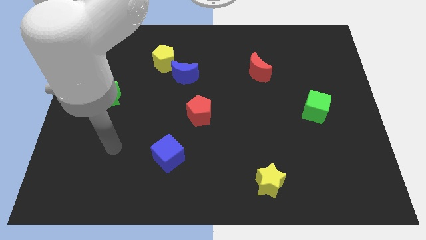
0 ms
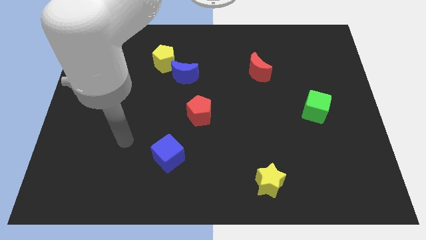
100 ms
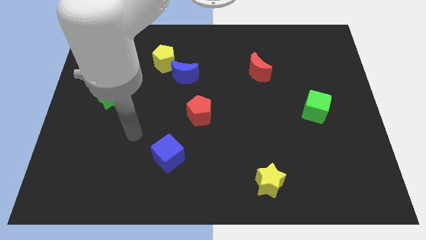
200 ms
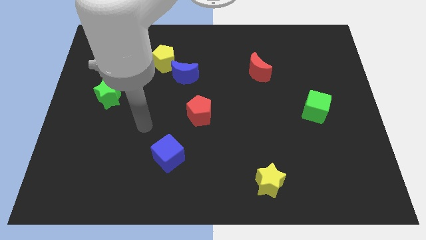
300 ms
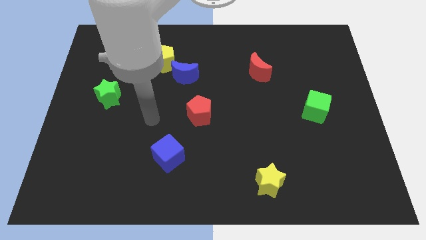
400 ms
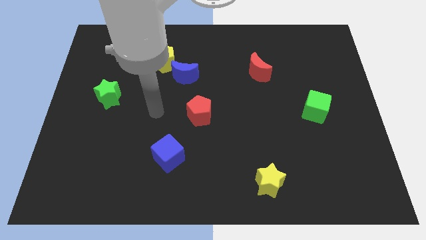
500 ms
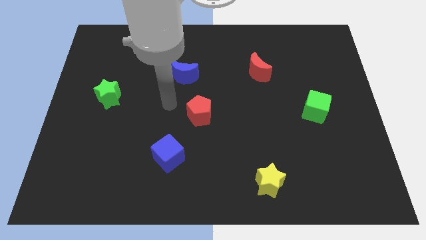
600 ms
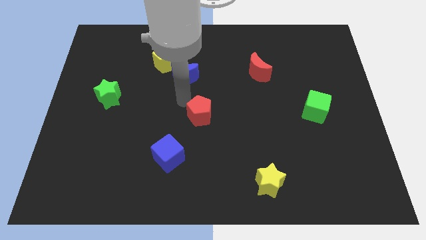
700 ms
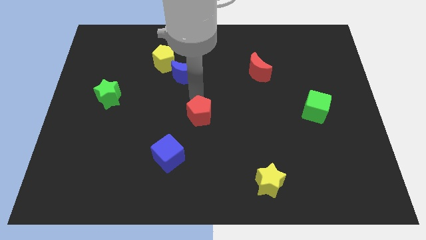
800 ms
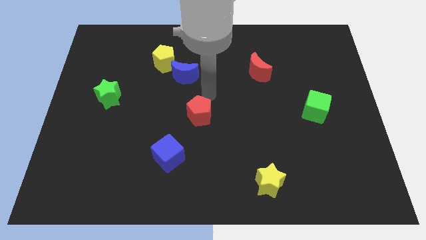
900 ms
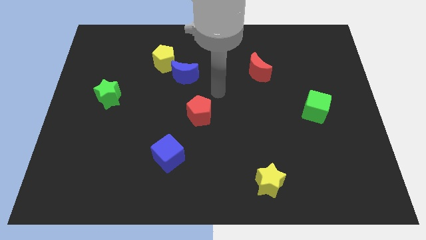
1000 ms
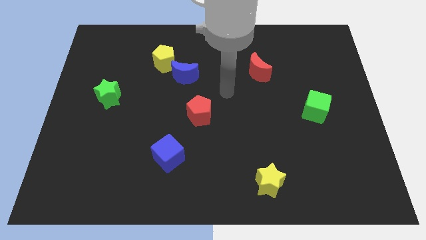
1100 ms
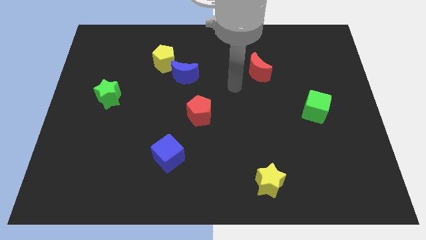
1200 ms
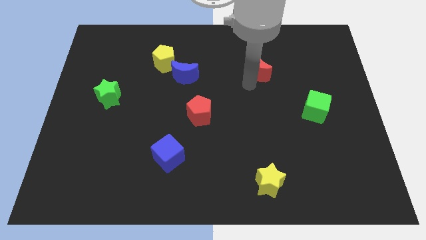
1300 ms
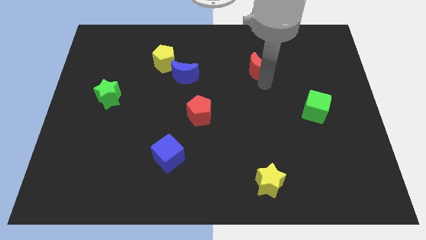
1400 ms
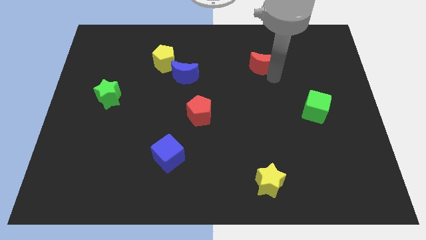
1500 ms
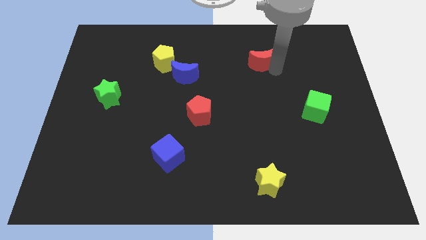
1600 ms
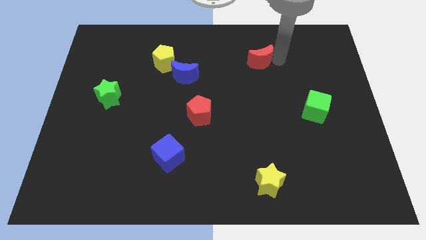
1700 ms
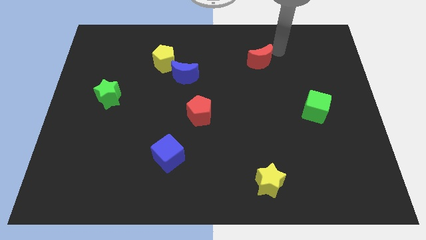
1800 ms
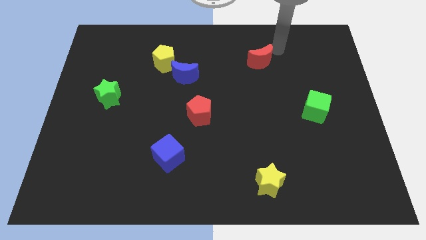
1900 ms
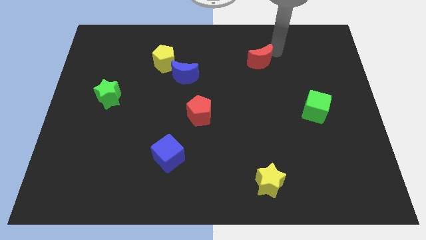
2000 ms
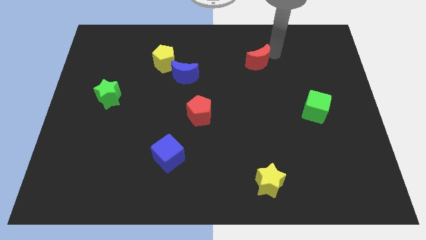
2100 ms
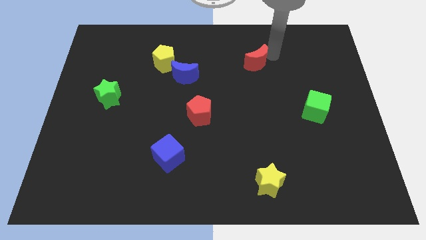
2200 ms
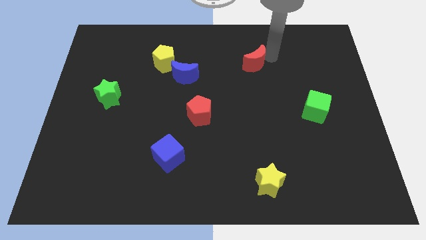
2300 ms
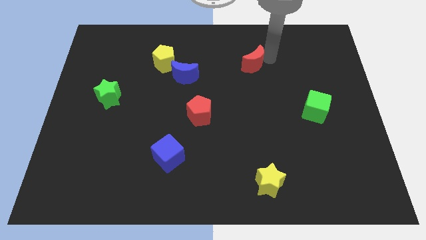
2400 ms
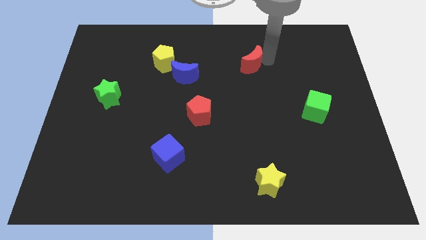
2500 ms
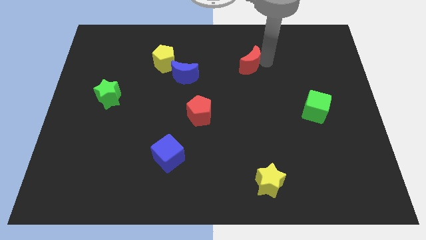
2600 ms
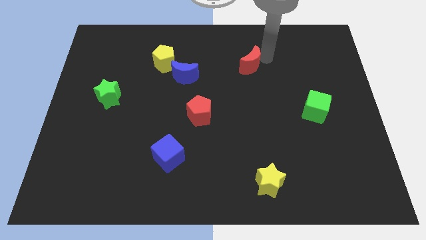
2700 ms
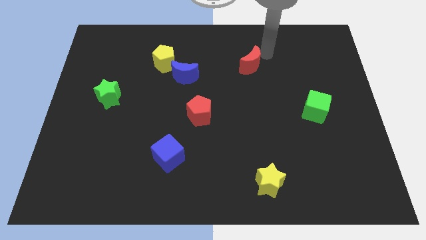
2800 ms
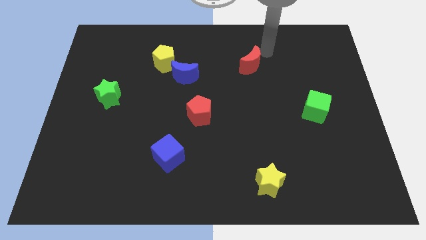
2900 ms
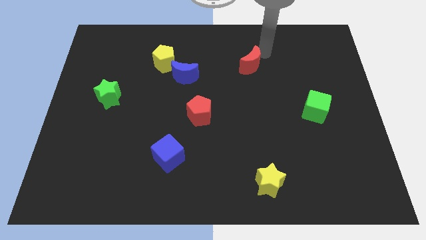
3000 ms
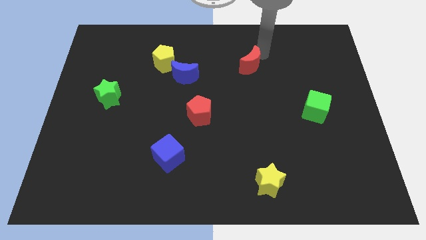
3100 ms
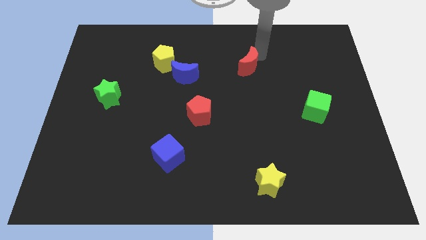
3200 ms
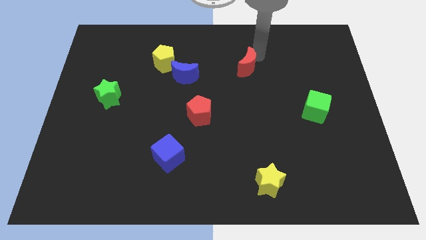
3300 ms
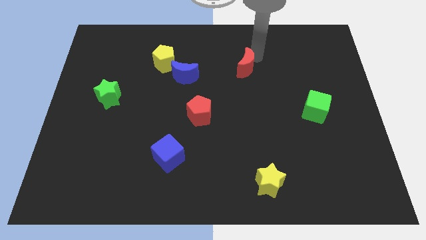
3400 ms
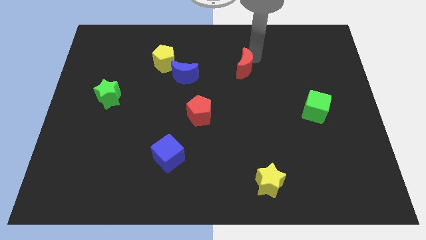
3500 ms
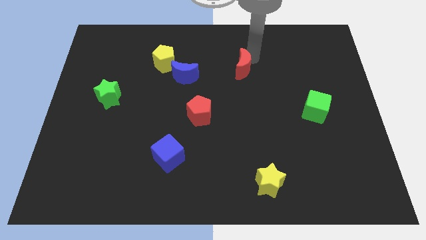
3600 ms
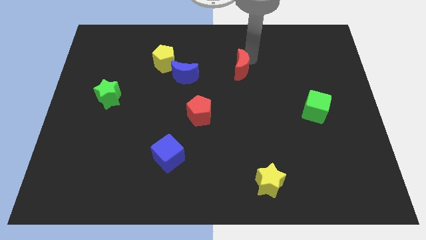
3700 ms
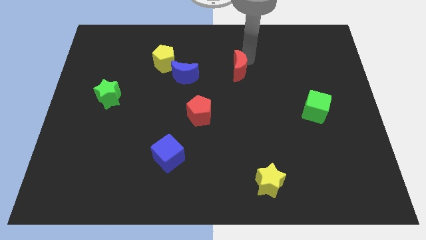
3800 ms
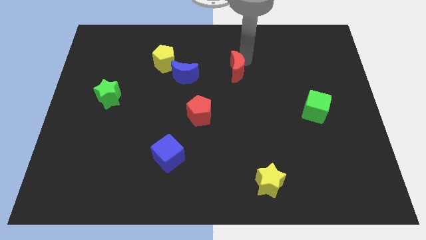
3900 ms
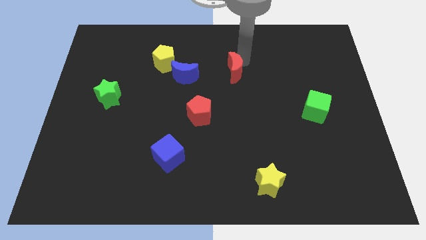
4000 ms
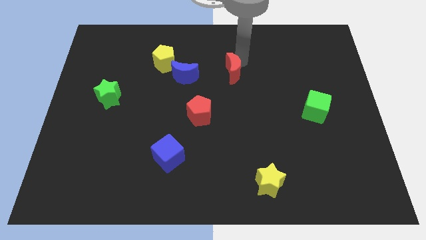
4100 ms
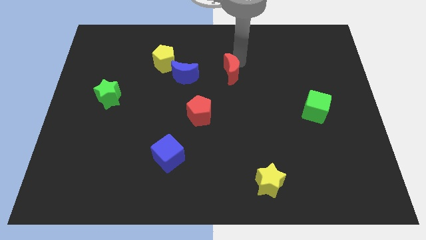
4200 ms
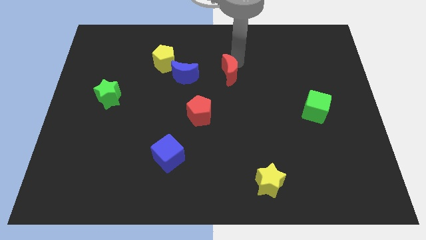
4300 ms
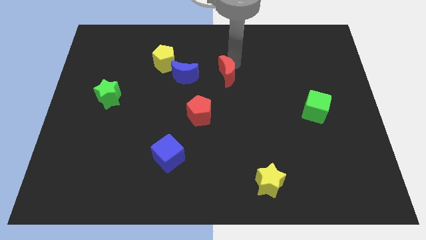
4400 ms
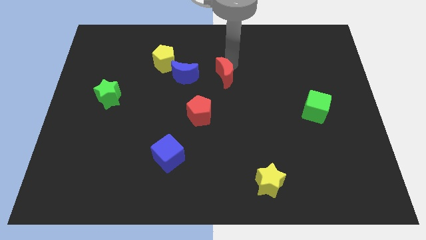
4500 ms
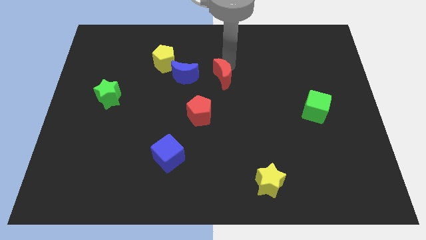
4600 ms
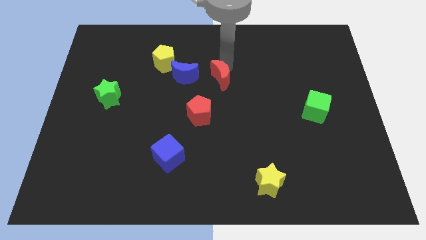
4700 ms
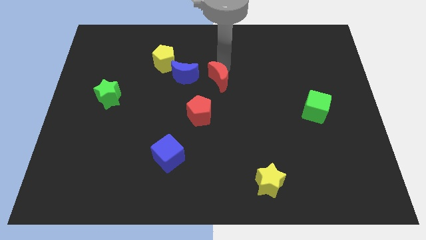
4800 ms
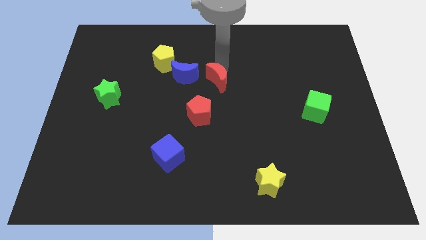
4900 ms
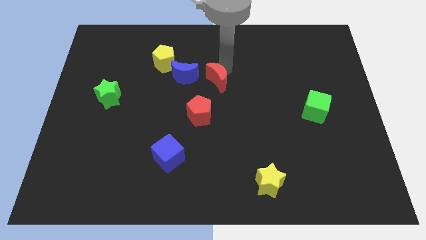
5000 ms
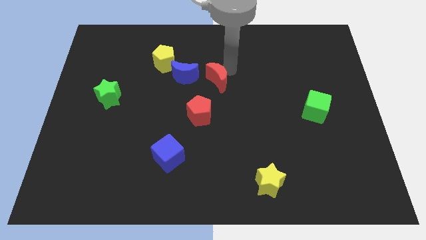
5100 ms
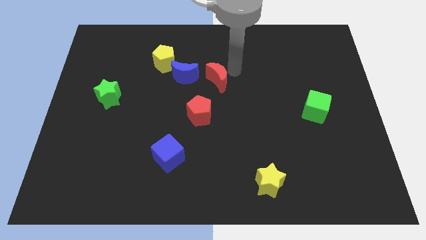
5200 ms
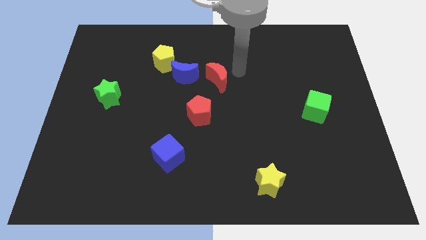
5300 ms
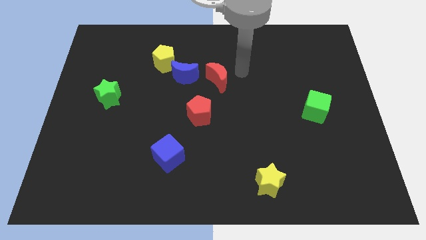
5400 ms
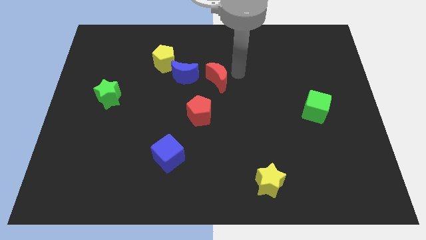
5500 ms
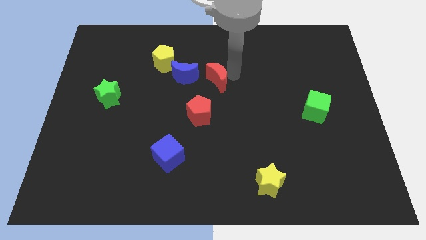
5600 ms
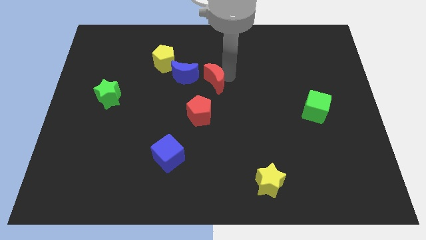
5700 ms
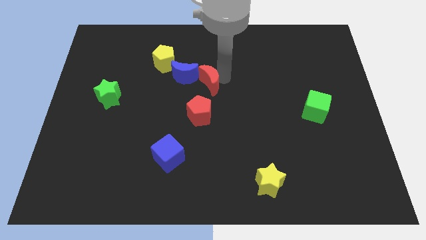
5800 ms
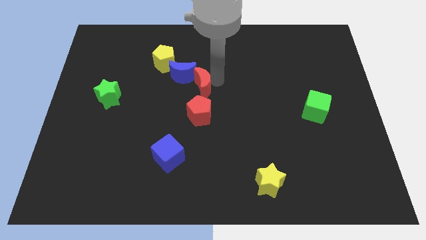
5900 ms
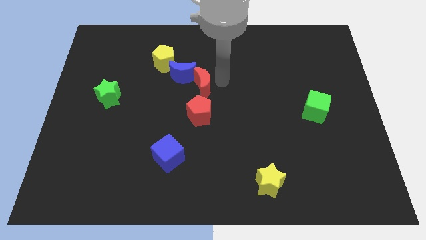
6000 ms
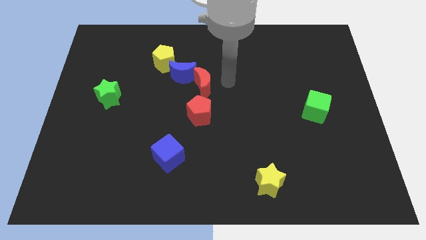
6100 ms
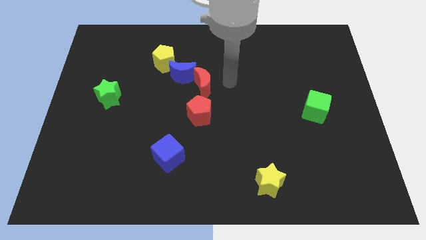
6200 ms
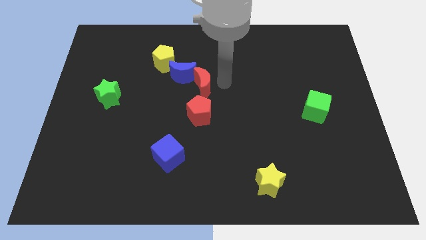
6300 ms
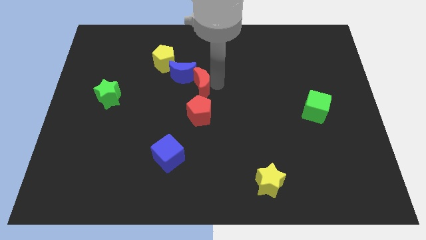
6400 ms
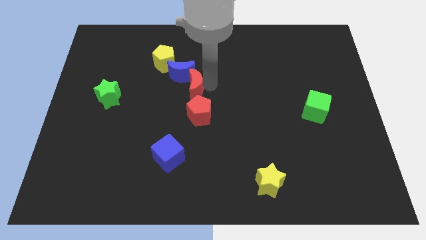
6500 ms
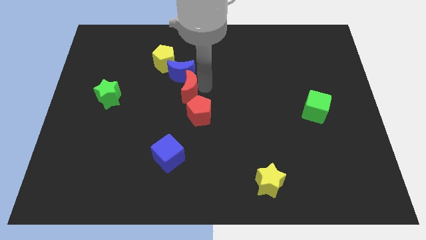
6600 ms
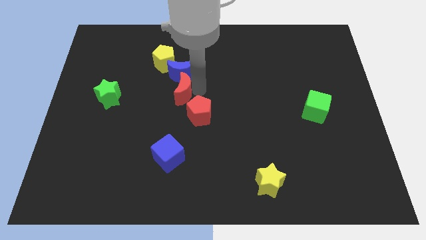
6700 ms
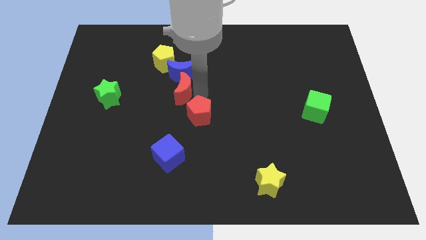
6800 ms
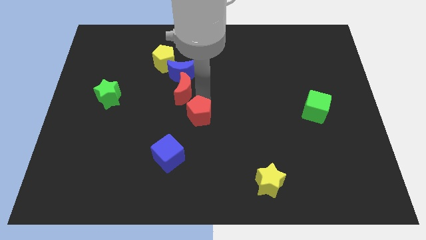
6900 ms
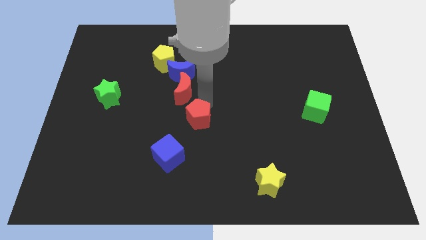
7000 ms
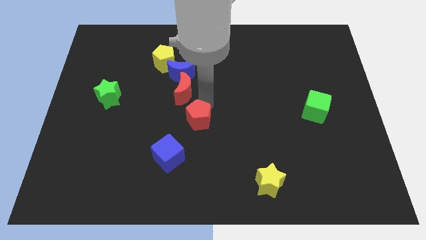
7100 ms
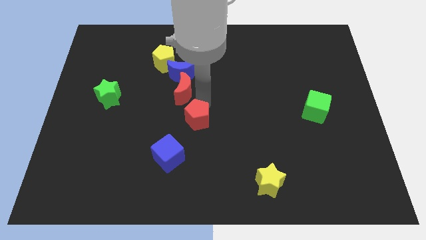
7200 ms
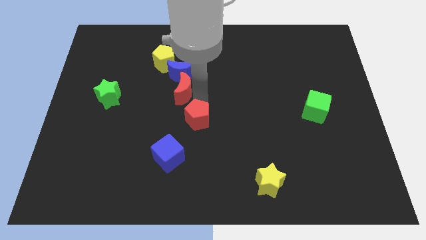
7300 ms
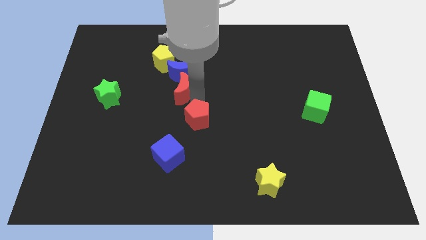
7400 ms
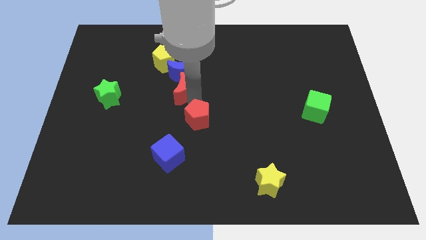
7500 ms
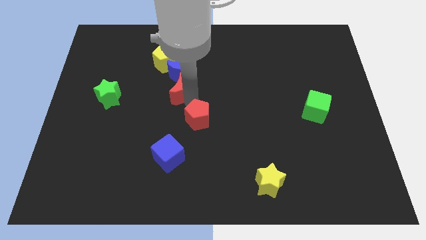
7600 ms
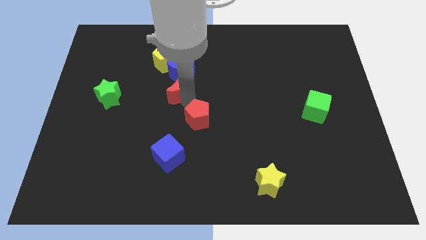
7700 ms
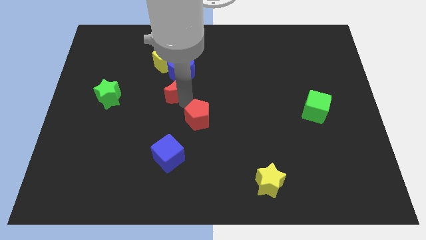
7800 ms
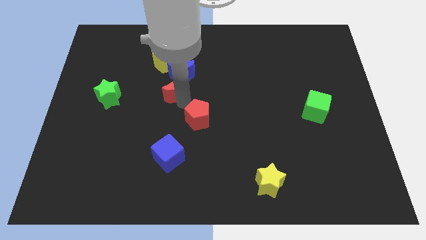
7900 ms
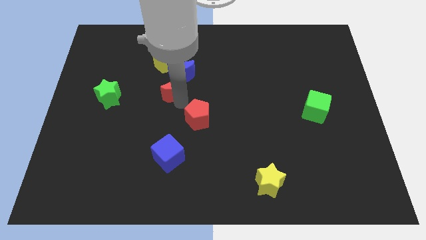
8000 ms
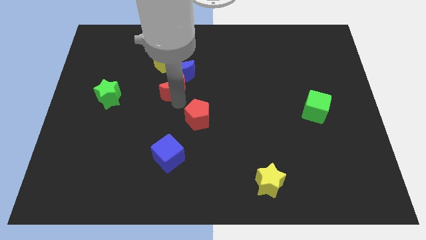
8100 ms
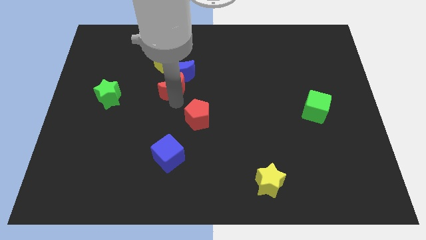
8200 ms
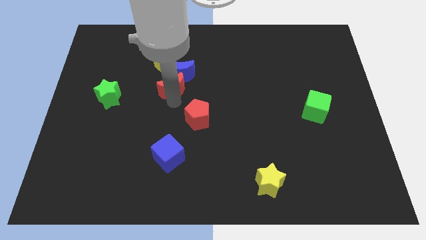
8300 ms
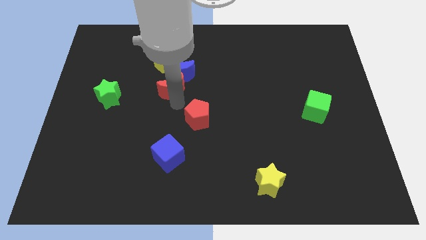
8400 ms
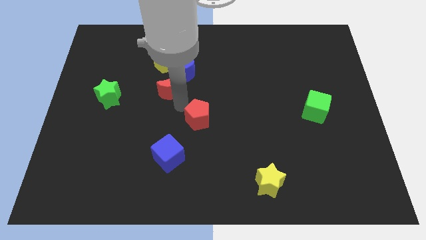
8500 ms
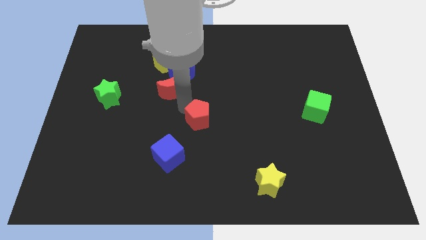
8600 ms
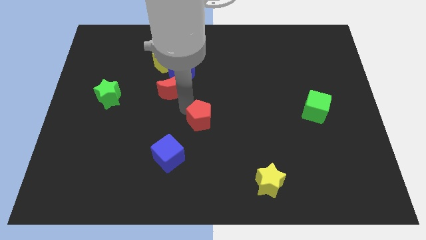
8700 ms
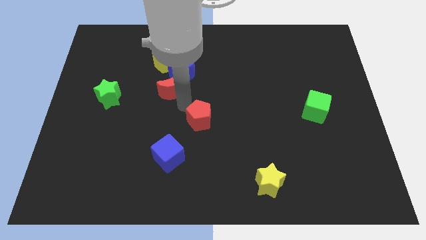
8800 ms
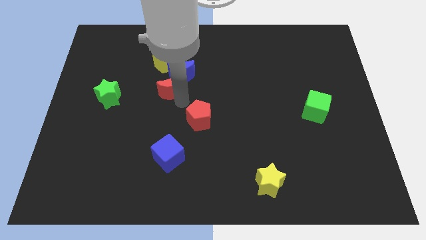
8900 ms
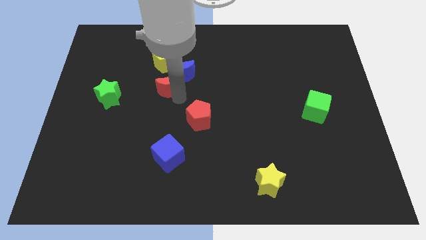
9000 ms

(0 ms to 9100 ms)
slide the red moon left
